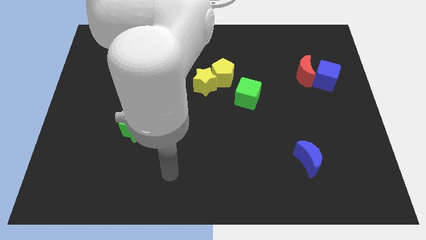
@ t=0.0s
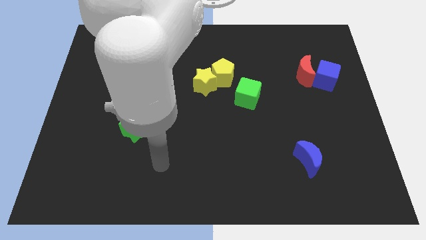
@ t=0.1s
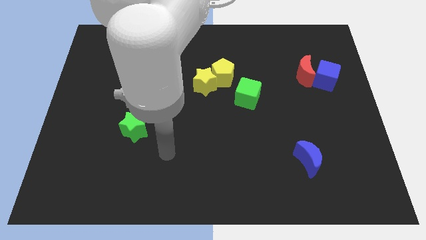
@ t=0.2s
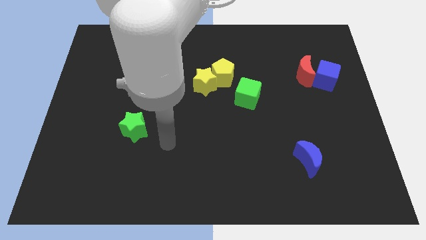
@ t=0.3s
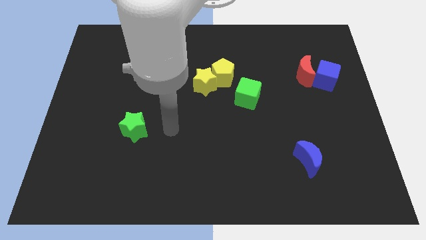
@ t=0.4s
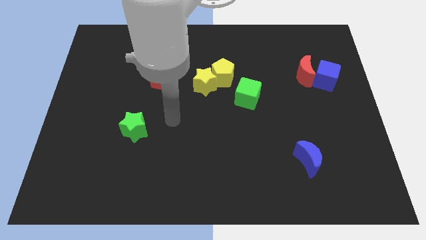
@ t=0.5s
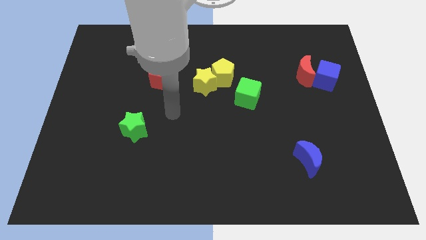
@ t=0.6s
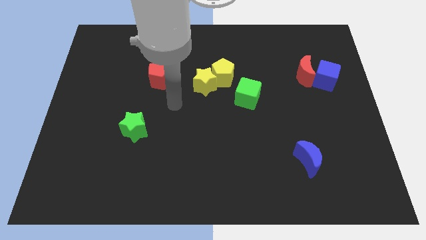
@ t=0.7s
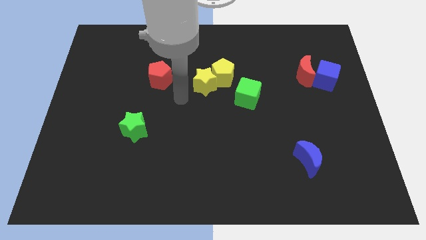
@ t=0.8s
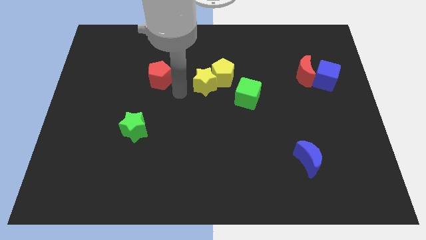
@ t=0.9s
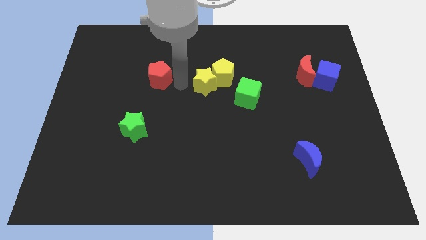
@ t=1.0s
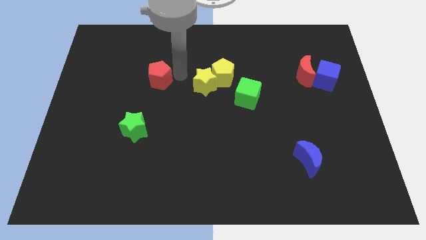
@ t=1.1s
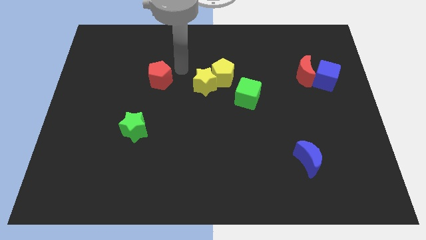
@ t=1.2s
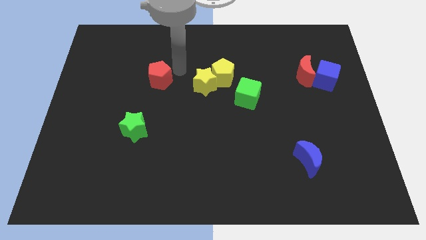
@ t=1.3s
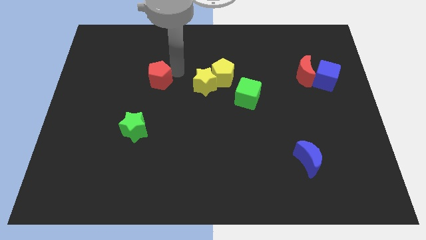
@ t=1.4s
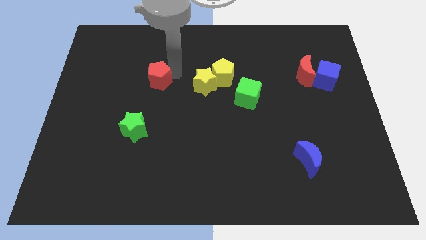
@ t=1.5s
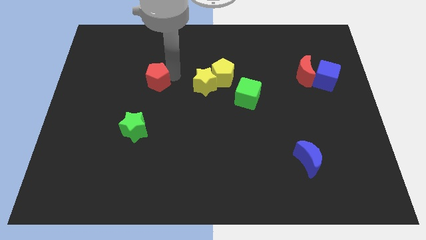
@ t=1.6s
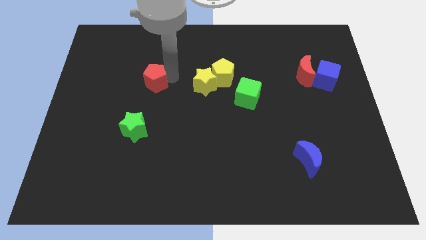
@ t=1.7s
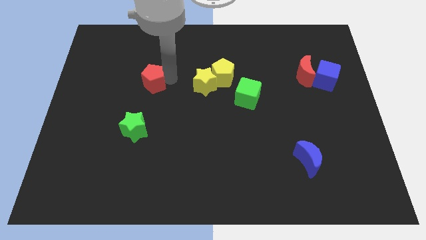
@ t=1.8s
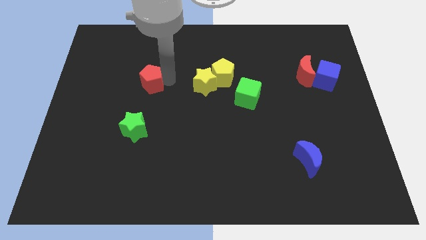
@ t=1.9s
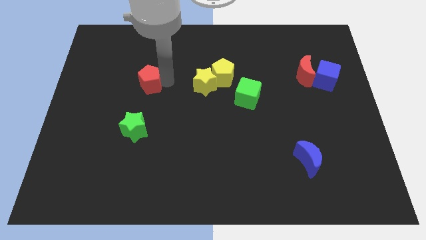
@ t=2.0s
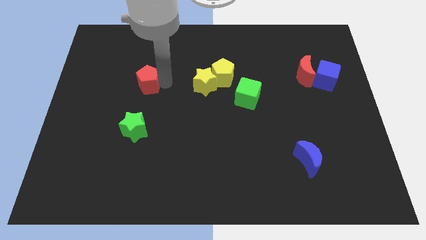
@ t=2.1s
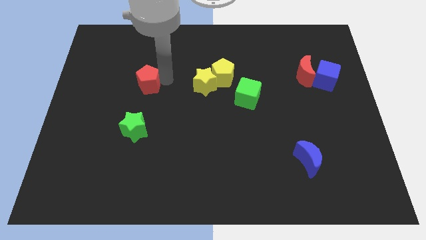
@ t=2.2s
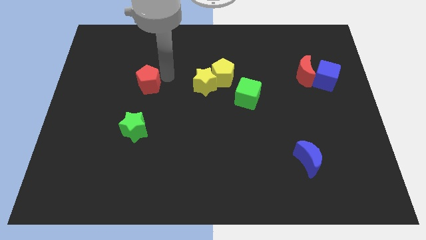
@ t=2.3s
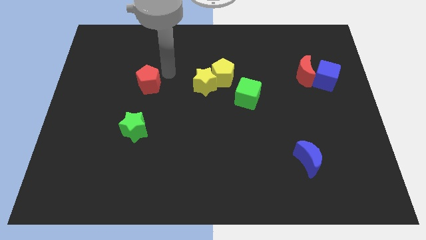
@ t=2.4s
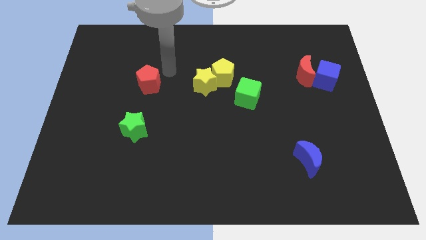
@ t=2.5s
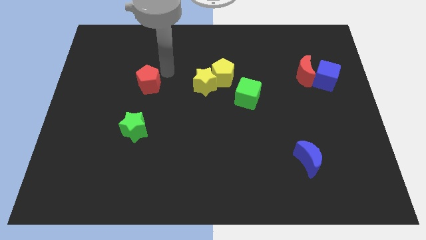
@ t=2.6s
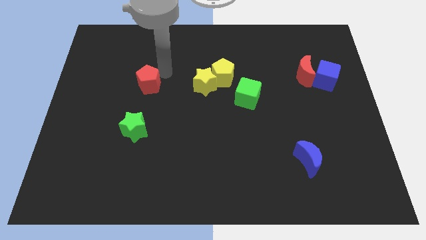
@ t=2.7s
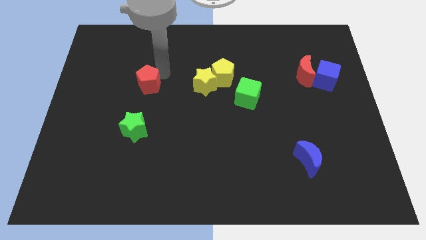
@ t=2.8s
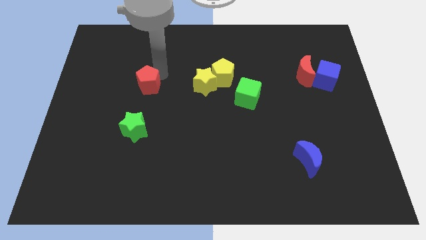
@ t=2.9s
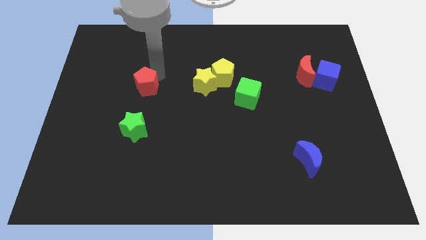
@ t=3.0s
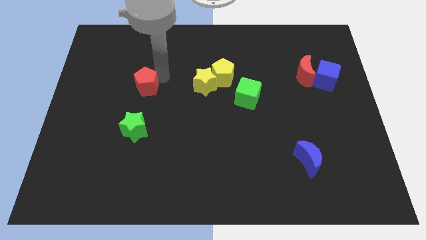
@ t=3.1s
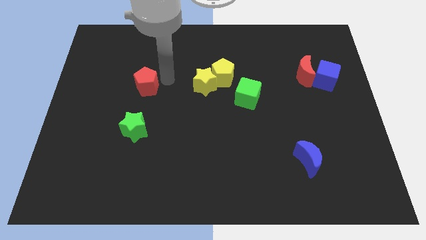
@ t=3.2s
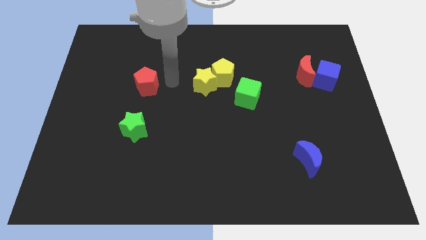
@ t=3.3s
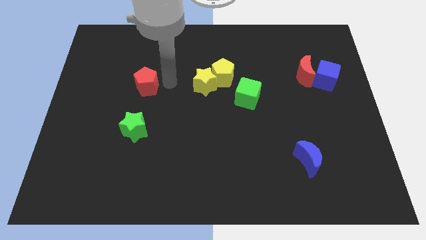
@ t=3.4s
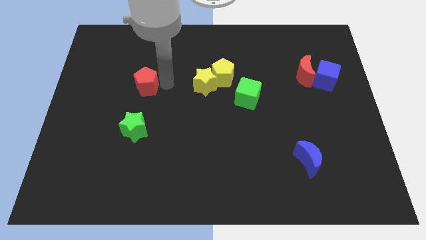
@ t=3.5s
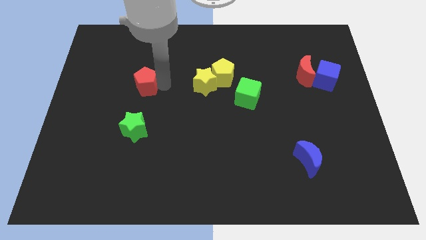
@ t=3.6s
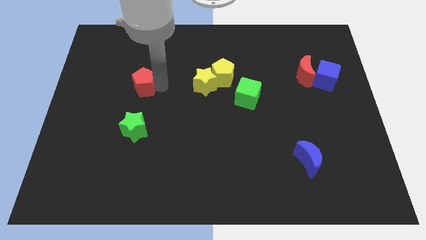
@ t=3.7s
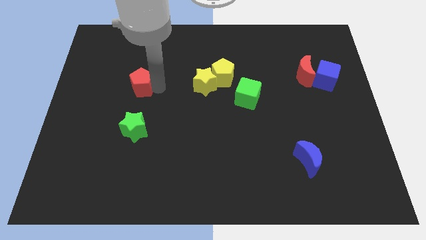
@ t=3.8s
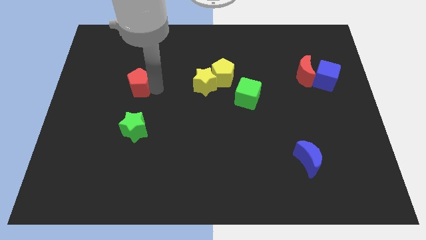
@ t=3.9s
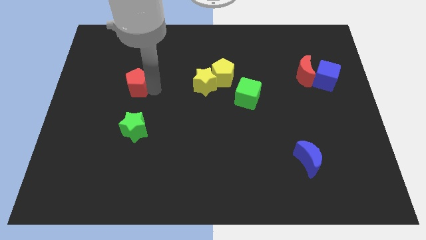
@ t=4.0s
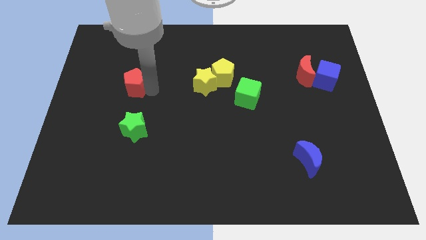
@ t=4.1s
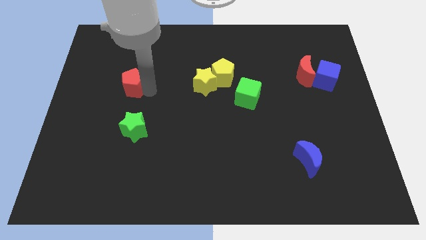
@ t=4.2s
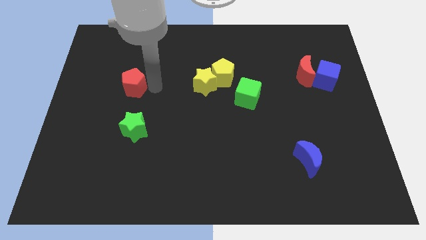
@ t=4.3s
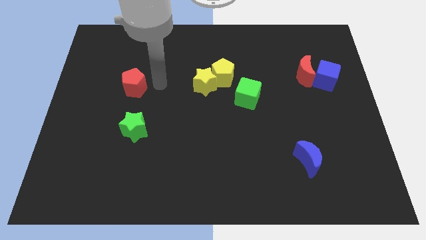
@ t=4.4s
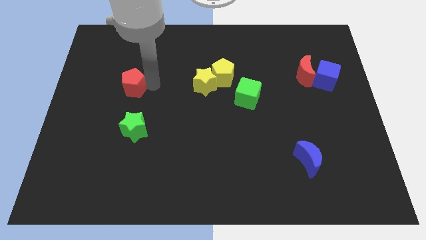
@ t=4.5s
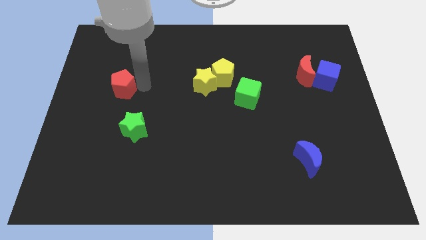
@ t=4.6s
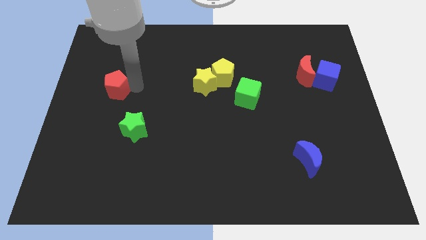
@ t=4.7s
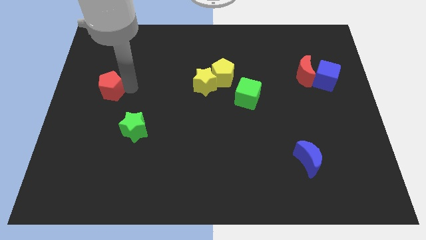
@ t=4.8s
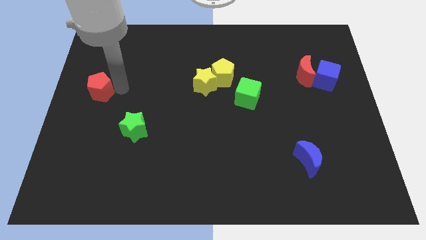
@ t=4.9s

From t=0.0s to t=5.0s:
slide the red pentagon to the left side of the board

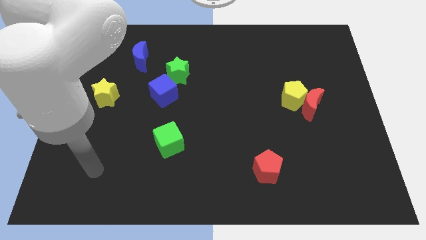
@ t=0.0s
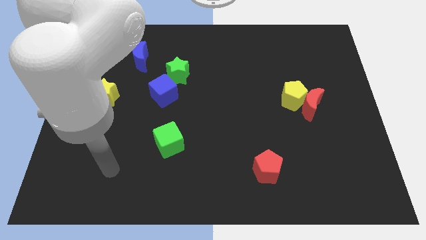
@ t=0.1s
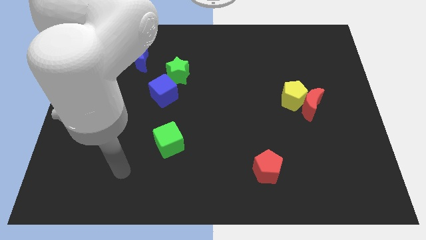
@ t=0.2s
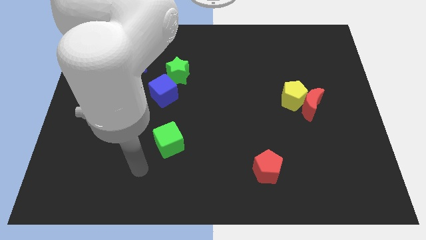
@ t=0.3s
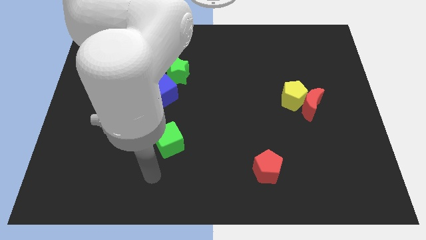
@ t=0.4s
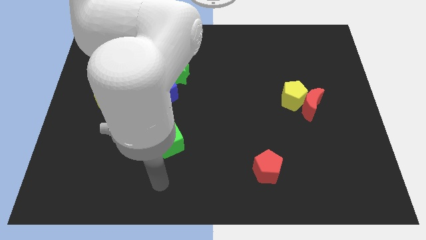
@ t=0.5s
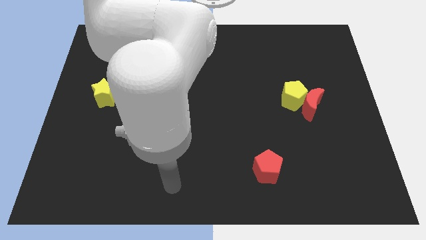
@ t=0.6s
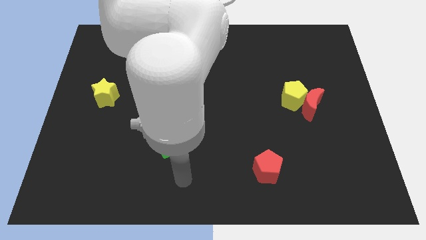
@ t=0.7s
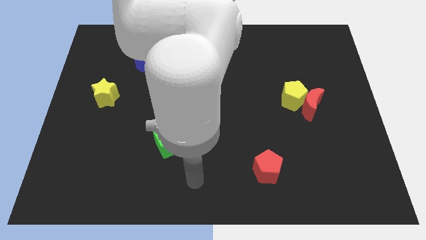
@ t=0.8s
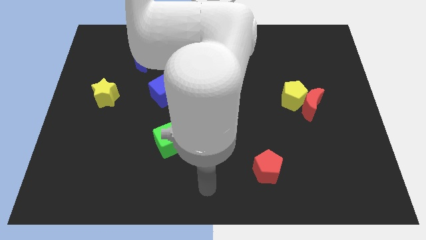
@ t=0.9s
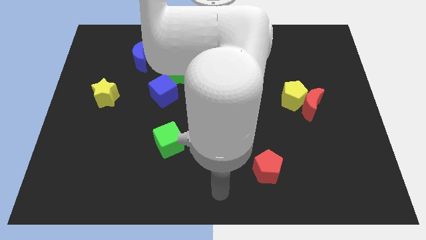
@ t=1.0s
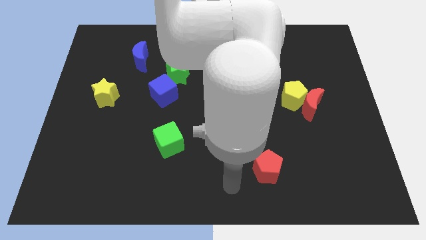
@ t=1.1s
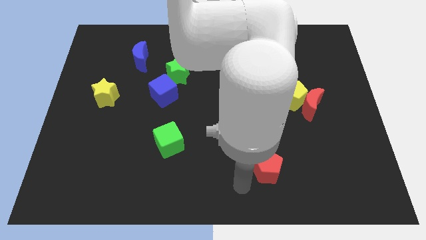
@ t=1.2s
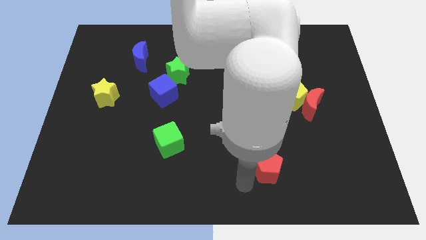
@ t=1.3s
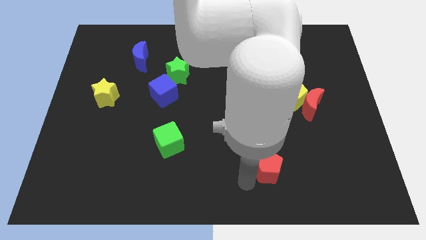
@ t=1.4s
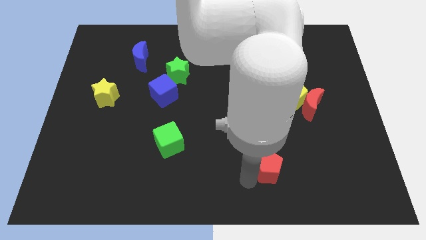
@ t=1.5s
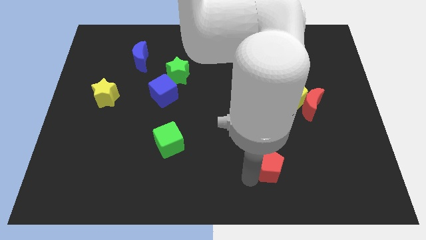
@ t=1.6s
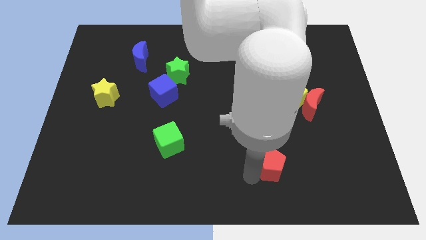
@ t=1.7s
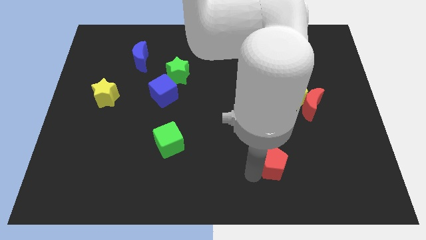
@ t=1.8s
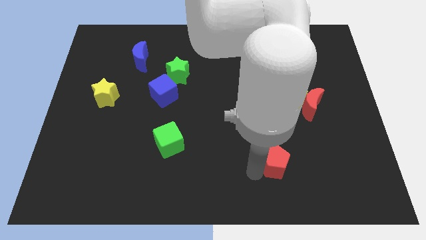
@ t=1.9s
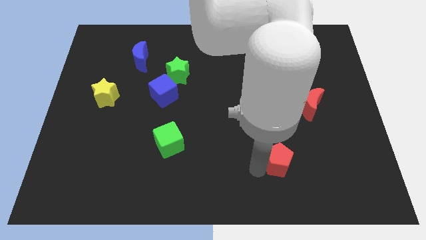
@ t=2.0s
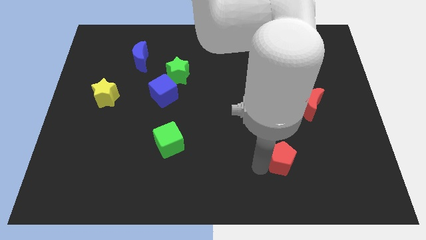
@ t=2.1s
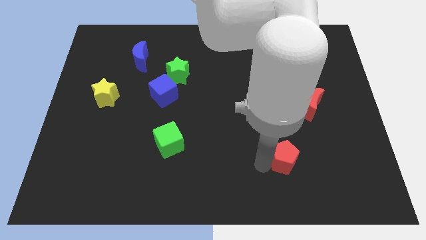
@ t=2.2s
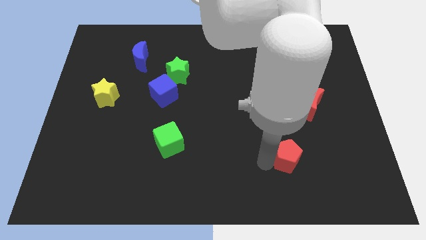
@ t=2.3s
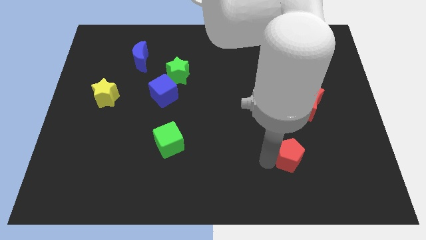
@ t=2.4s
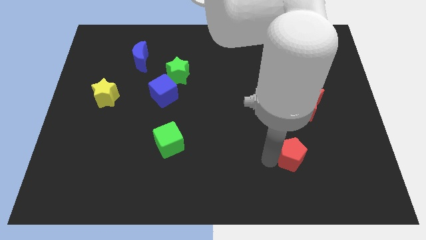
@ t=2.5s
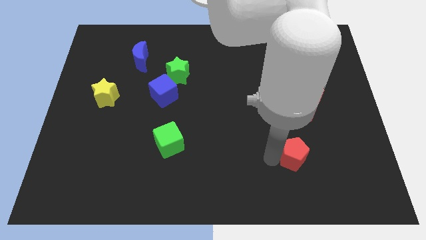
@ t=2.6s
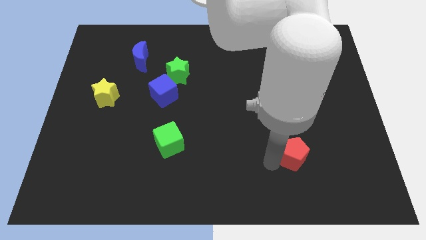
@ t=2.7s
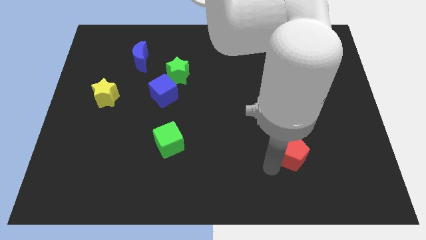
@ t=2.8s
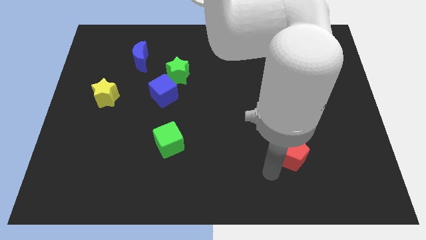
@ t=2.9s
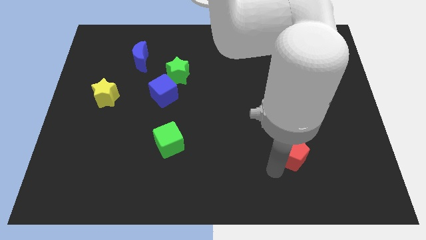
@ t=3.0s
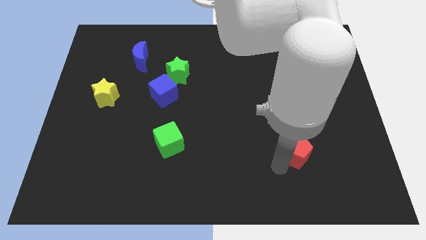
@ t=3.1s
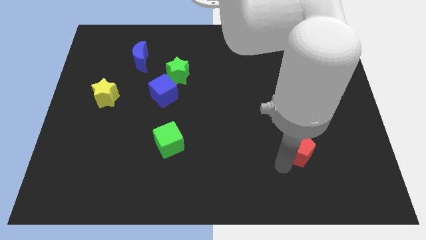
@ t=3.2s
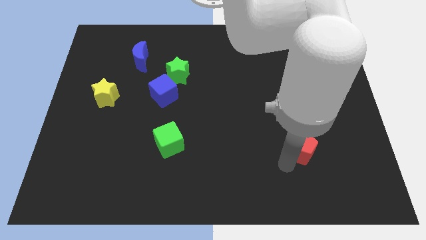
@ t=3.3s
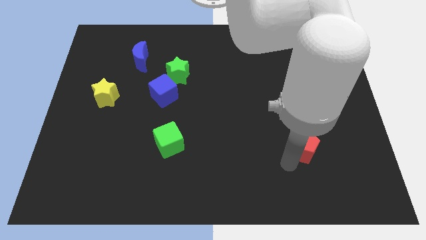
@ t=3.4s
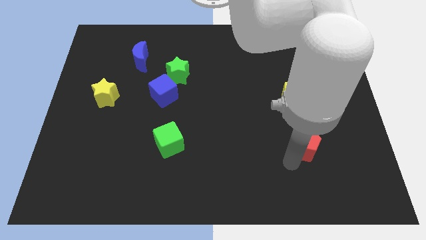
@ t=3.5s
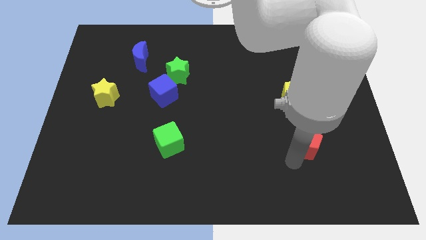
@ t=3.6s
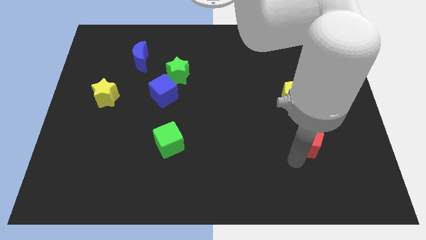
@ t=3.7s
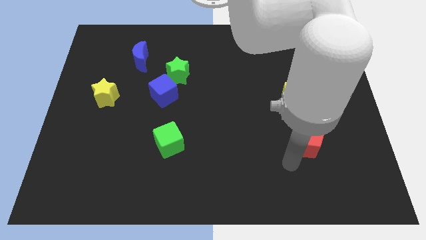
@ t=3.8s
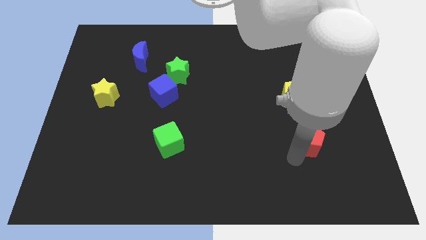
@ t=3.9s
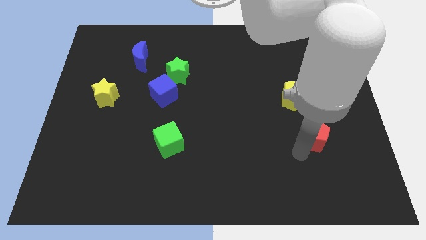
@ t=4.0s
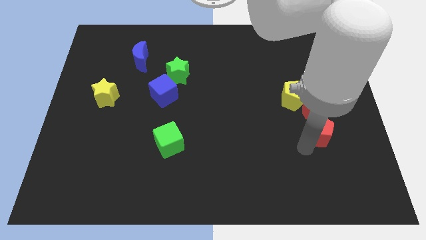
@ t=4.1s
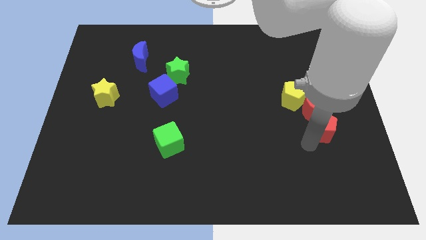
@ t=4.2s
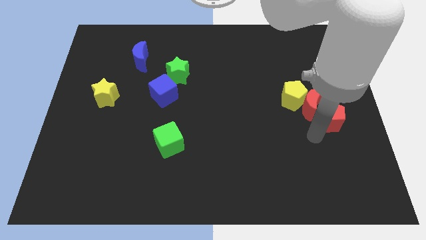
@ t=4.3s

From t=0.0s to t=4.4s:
push the red pentagon to the center right
